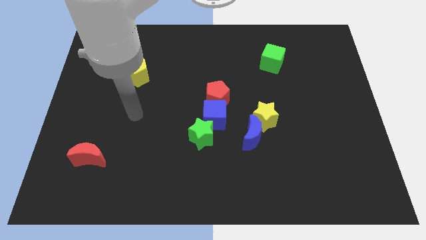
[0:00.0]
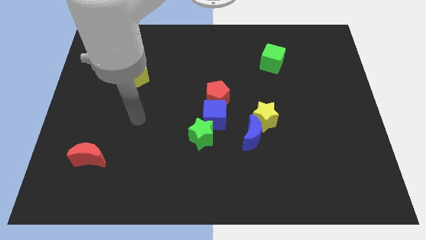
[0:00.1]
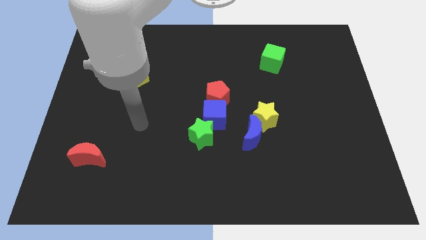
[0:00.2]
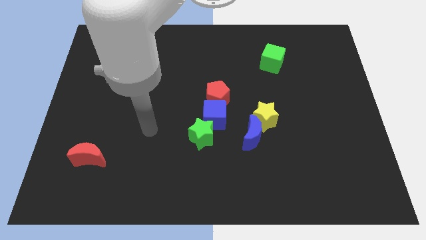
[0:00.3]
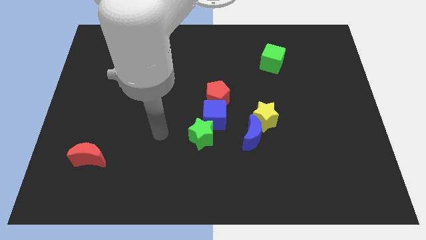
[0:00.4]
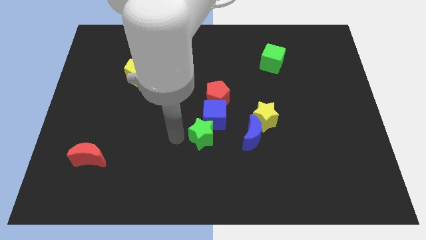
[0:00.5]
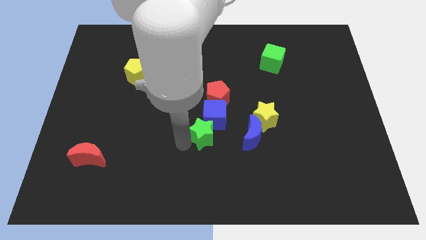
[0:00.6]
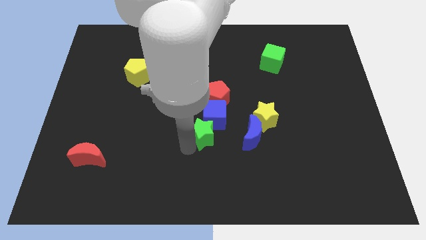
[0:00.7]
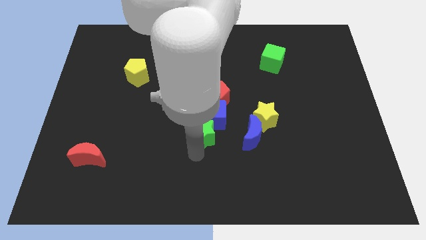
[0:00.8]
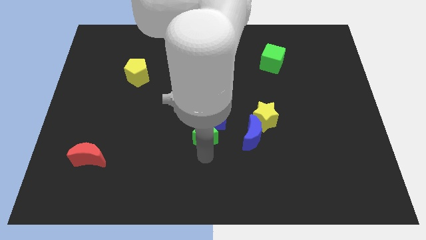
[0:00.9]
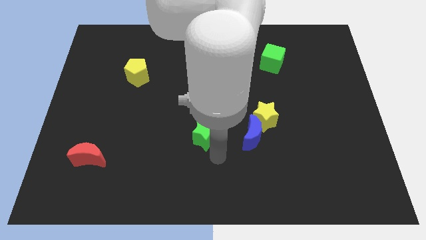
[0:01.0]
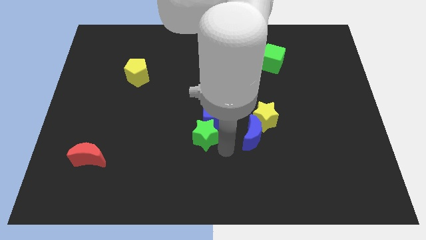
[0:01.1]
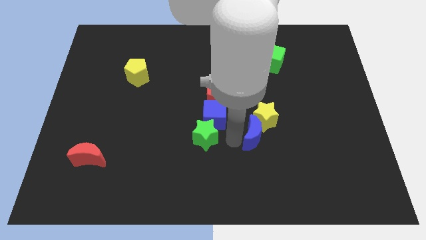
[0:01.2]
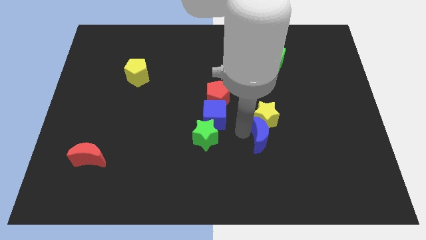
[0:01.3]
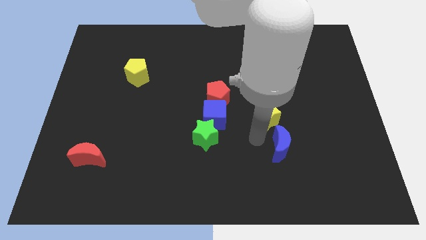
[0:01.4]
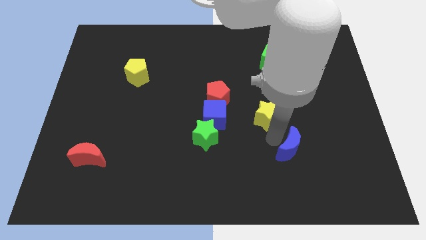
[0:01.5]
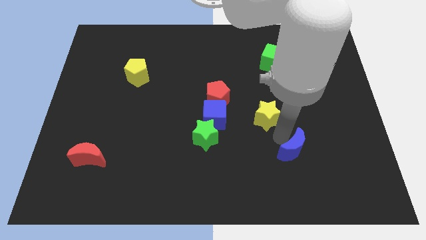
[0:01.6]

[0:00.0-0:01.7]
move the yellow star away from the blue moon

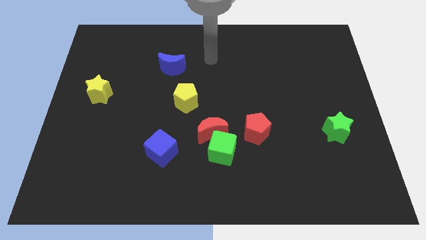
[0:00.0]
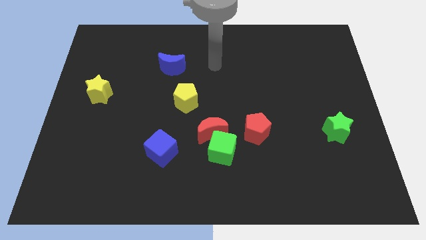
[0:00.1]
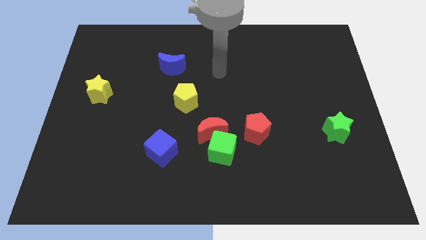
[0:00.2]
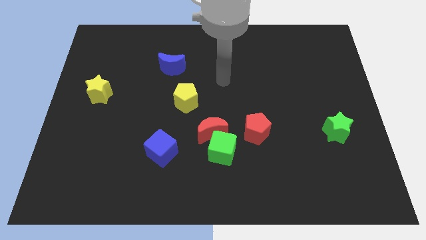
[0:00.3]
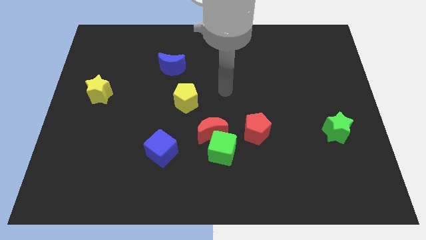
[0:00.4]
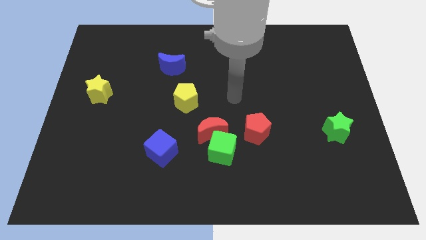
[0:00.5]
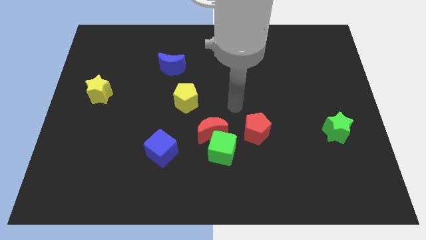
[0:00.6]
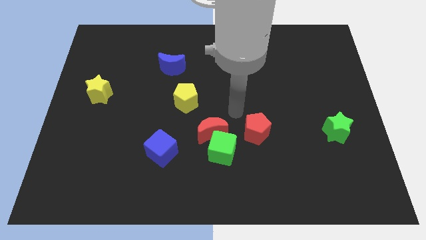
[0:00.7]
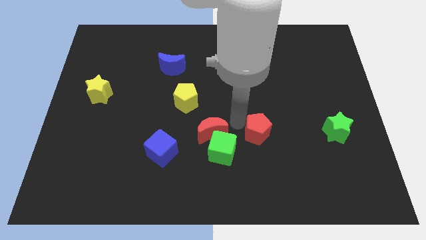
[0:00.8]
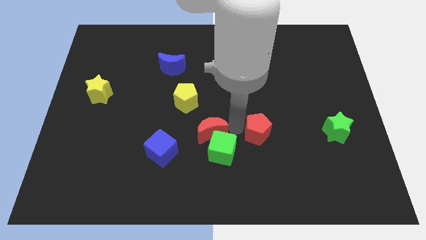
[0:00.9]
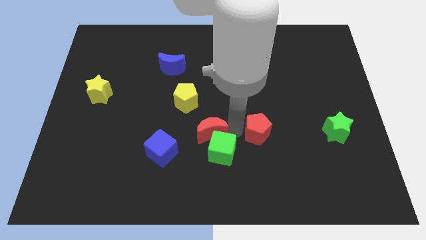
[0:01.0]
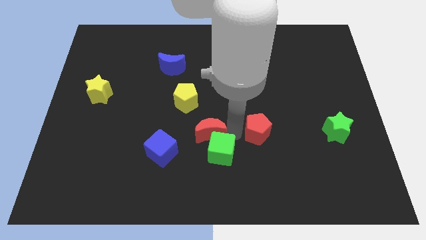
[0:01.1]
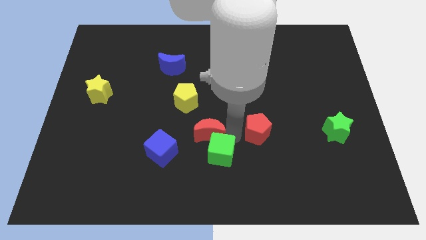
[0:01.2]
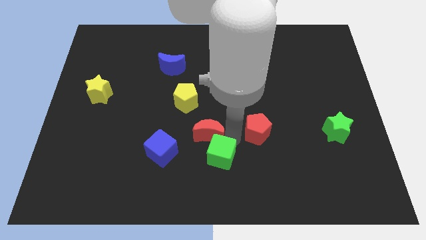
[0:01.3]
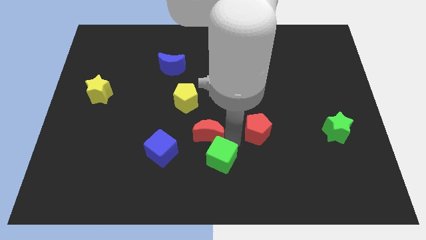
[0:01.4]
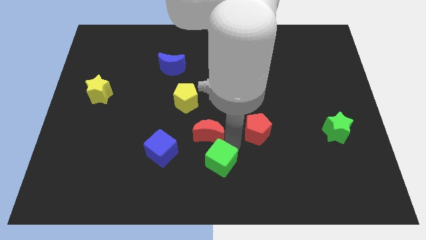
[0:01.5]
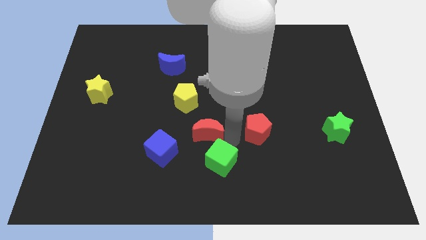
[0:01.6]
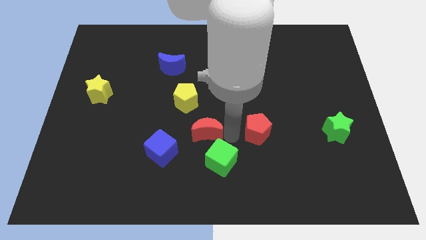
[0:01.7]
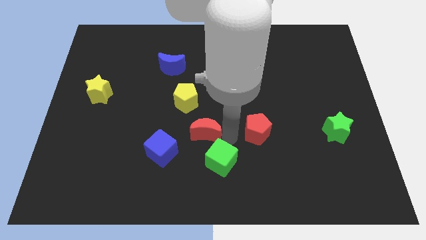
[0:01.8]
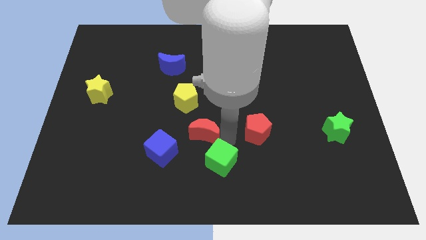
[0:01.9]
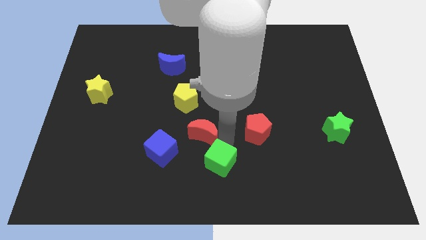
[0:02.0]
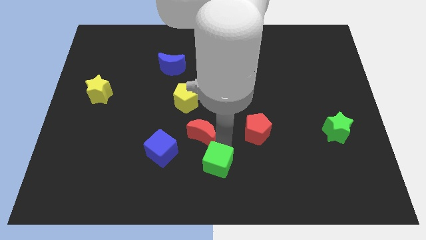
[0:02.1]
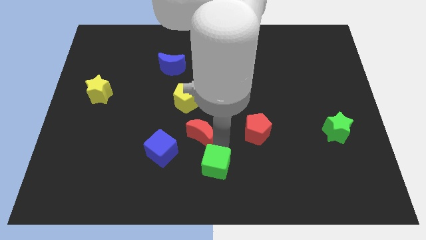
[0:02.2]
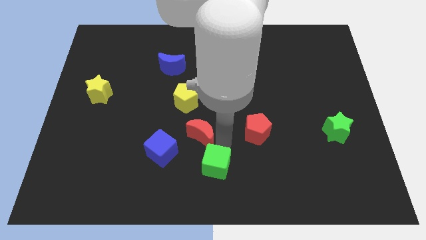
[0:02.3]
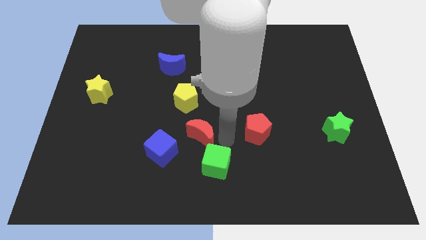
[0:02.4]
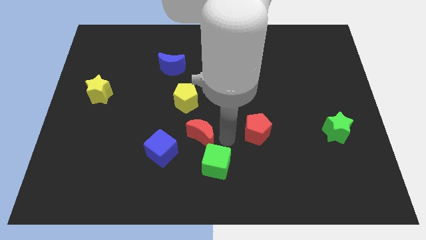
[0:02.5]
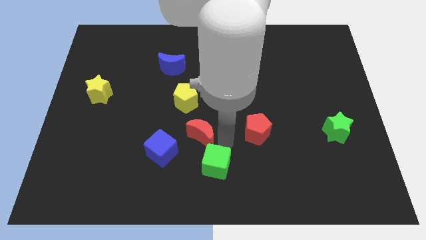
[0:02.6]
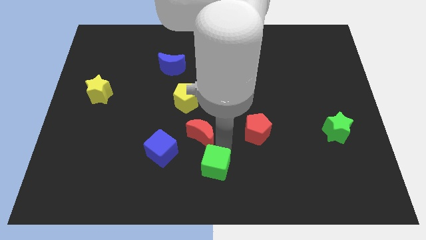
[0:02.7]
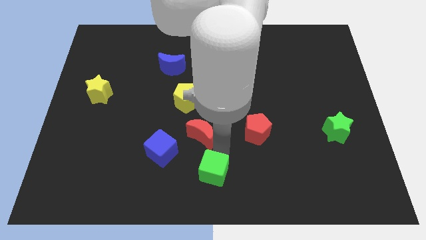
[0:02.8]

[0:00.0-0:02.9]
separate the green cube from the red moon and red pentagon

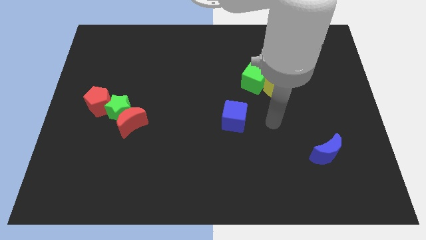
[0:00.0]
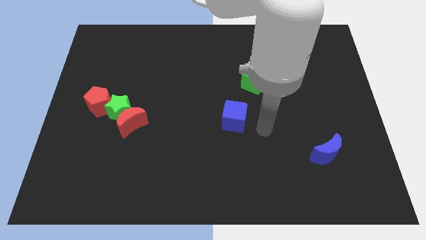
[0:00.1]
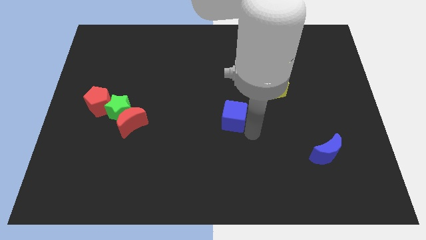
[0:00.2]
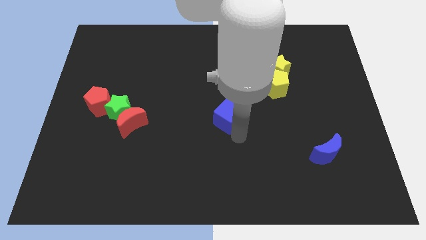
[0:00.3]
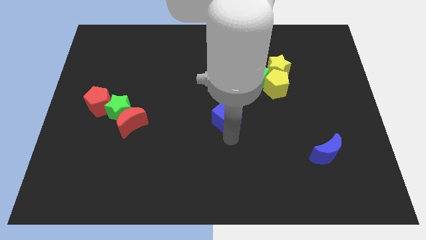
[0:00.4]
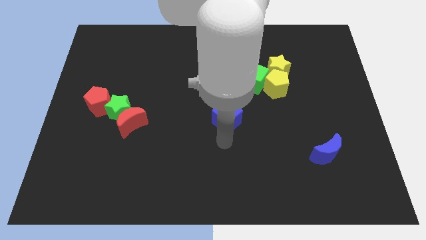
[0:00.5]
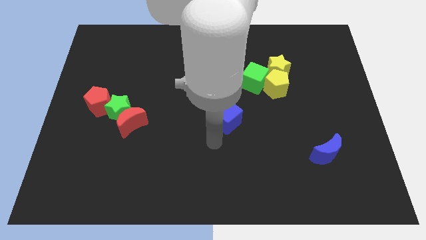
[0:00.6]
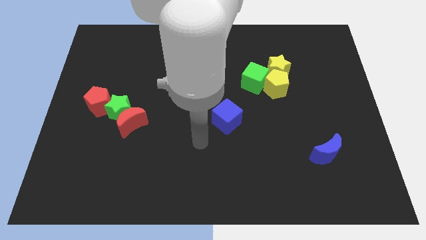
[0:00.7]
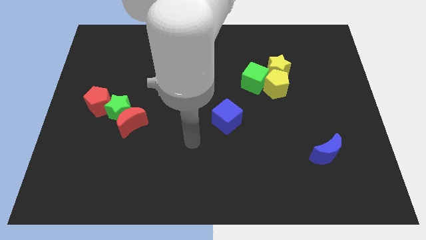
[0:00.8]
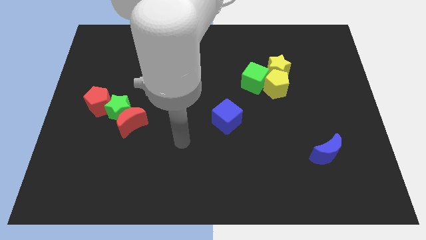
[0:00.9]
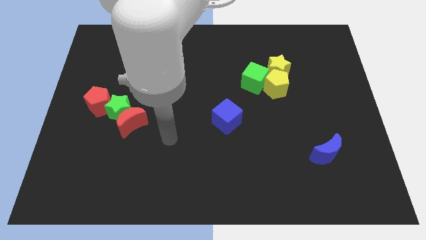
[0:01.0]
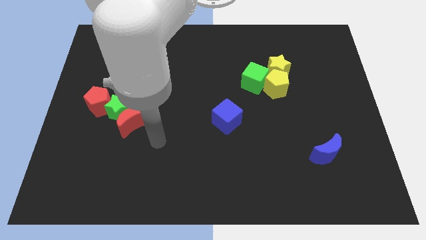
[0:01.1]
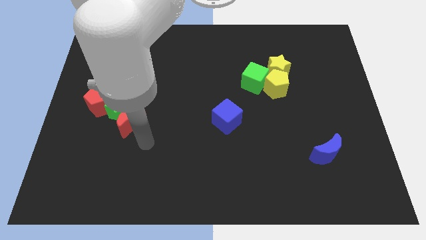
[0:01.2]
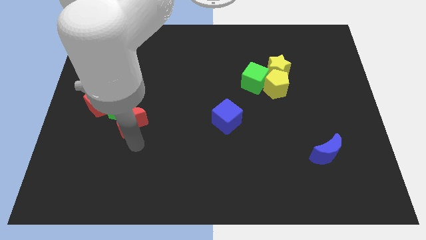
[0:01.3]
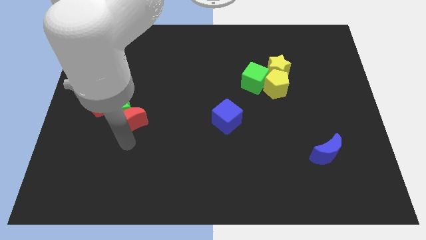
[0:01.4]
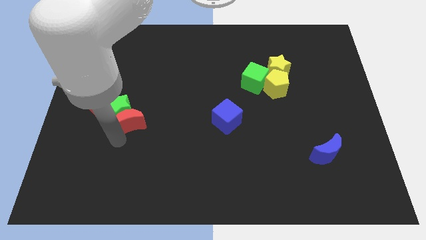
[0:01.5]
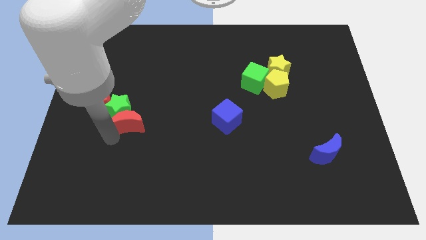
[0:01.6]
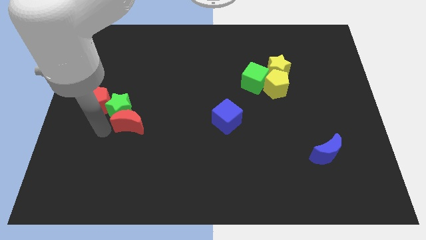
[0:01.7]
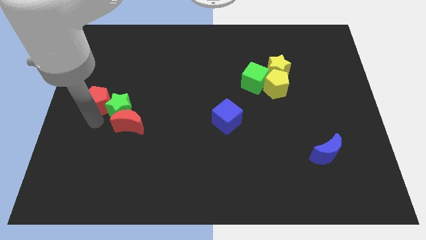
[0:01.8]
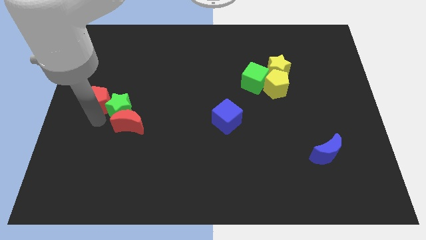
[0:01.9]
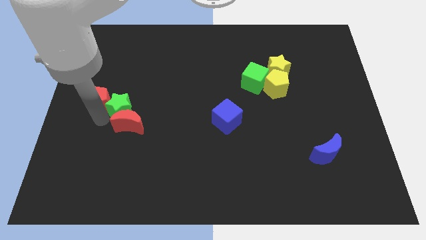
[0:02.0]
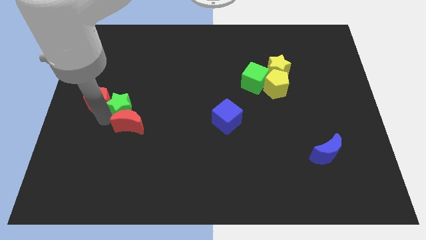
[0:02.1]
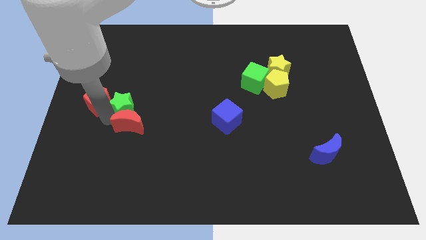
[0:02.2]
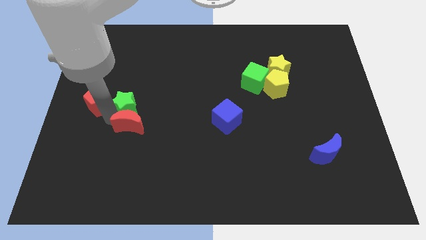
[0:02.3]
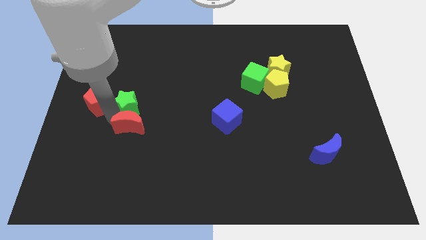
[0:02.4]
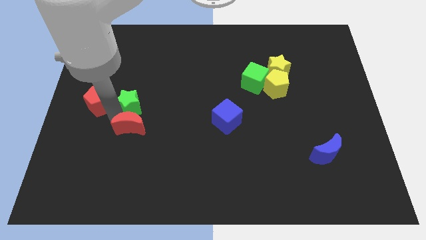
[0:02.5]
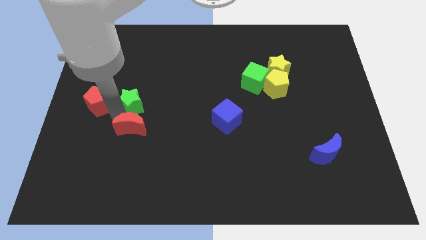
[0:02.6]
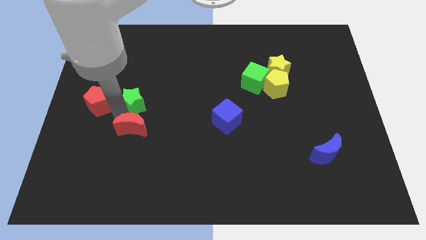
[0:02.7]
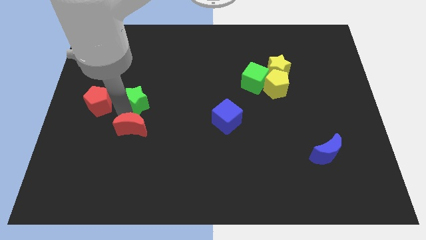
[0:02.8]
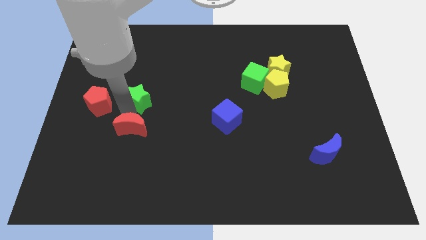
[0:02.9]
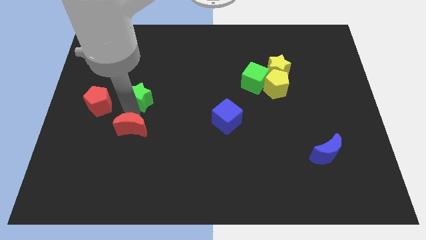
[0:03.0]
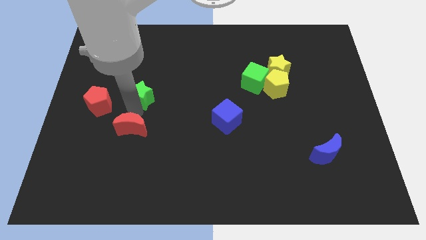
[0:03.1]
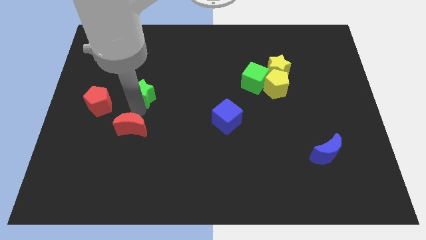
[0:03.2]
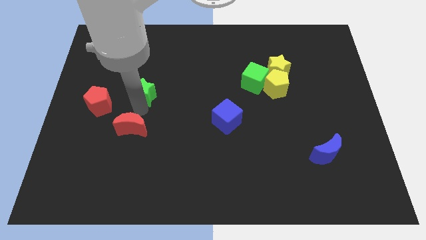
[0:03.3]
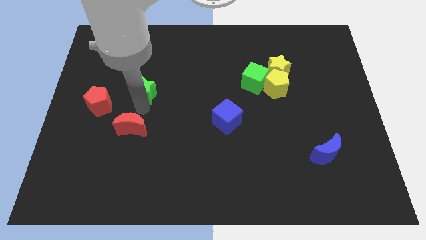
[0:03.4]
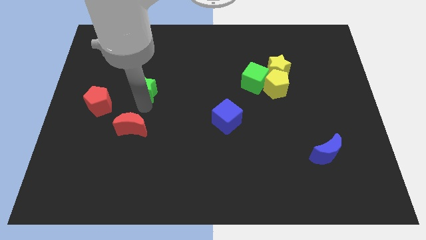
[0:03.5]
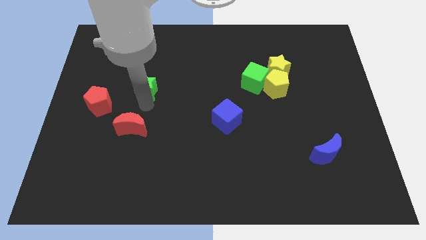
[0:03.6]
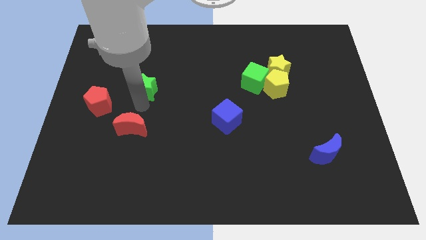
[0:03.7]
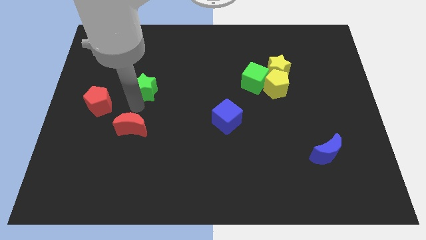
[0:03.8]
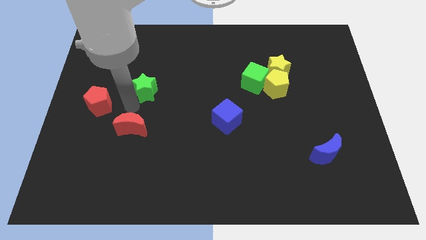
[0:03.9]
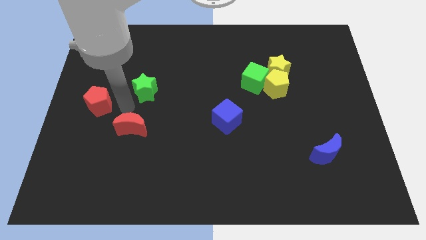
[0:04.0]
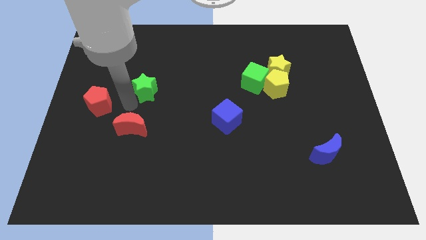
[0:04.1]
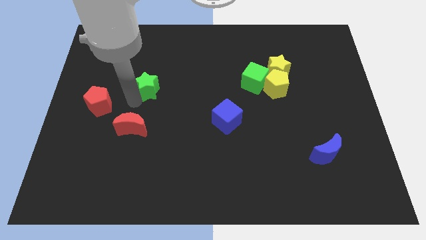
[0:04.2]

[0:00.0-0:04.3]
pull the green star apart from the red moon and red pentagon

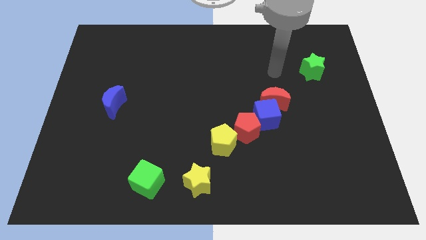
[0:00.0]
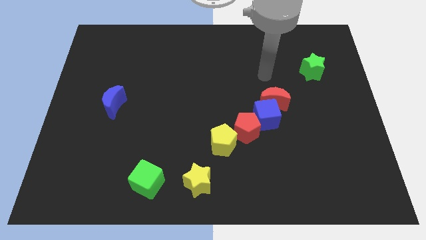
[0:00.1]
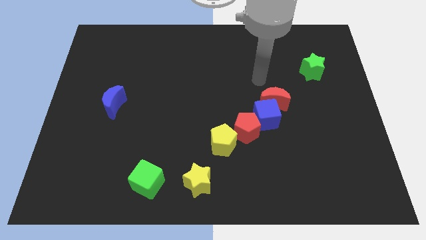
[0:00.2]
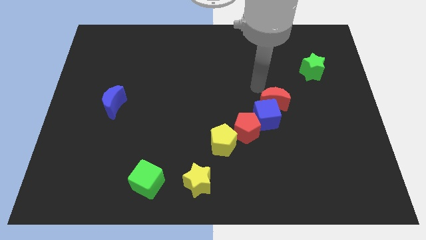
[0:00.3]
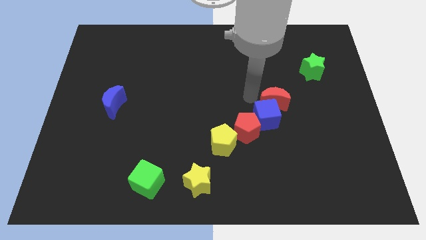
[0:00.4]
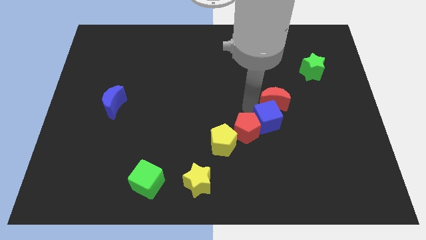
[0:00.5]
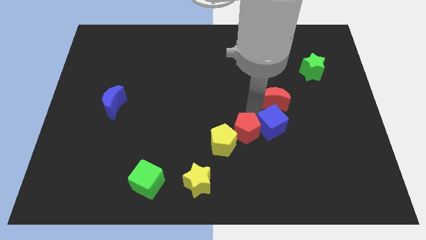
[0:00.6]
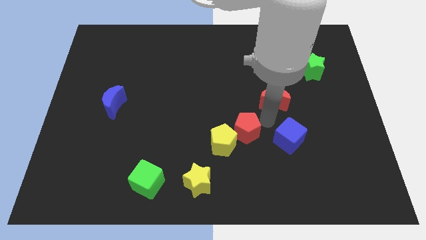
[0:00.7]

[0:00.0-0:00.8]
move the red moon away from the blue cube
